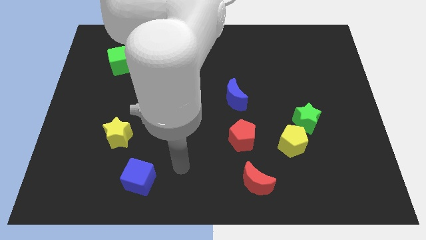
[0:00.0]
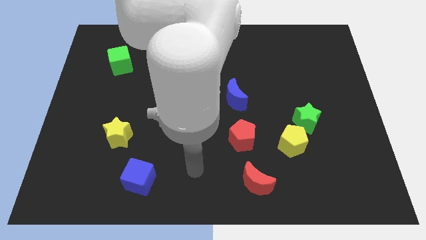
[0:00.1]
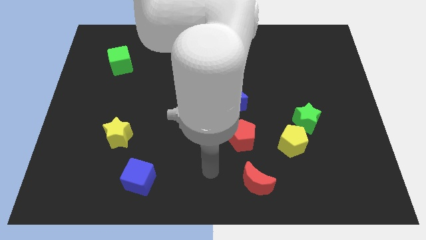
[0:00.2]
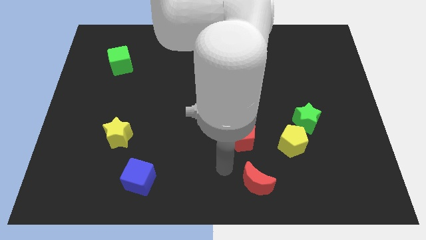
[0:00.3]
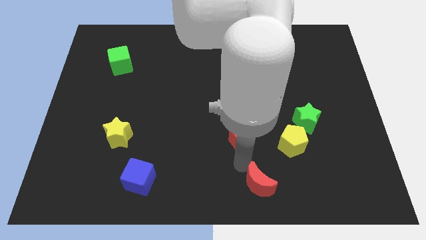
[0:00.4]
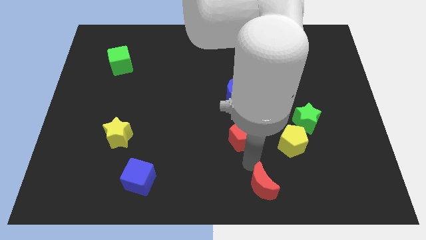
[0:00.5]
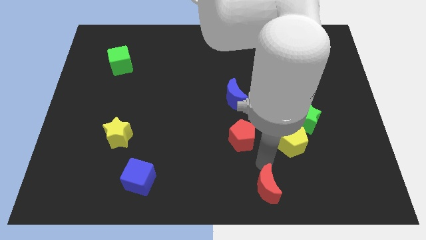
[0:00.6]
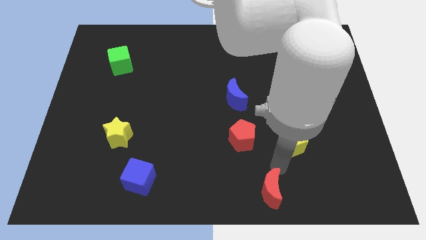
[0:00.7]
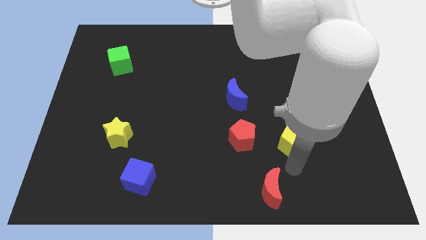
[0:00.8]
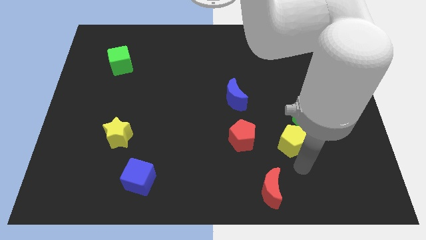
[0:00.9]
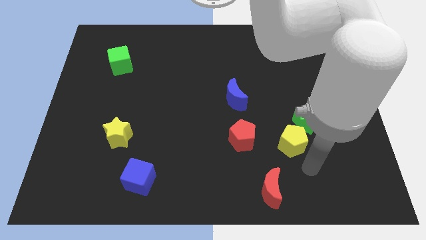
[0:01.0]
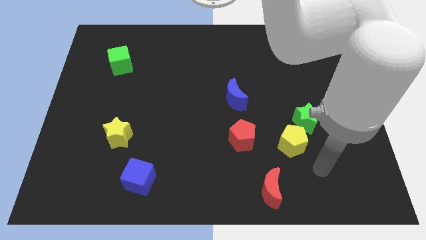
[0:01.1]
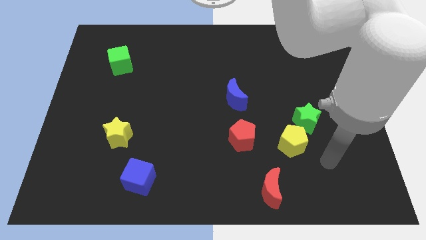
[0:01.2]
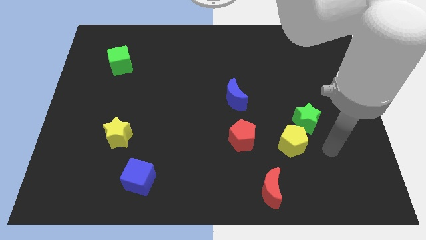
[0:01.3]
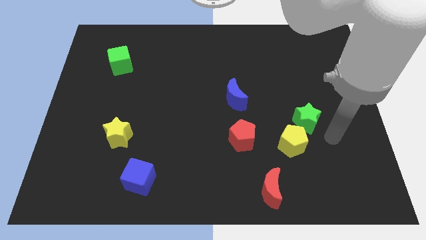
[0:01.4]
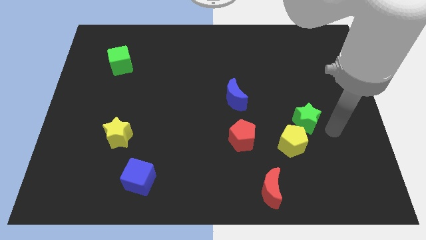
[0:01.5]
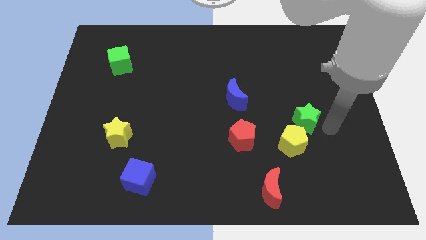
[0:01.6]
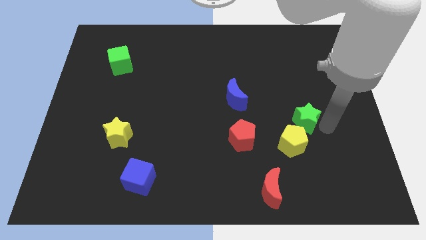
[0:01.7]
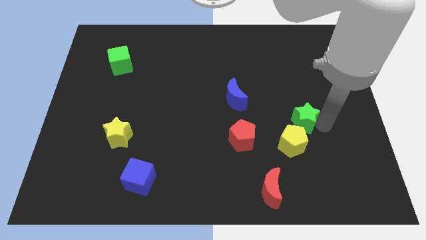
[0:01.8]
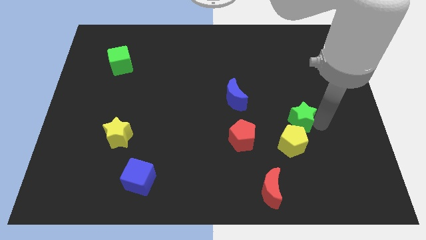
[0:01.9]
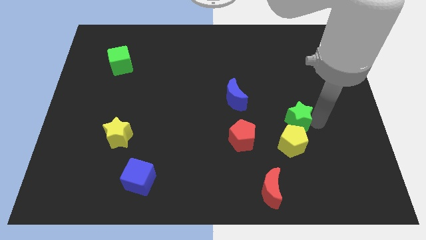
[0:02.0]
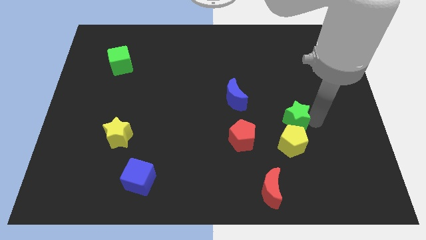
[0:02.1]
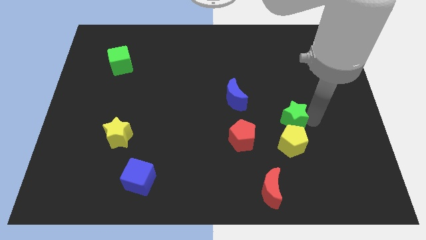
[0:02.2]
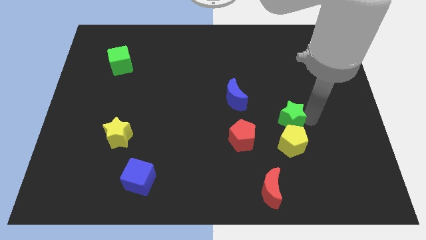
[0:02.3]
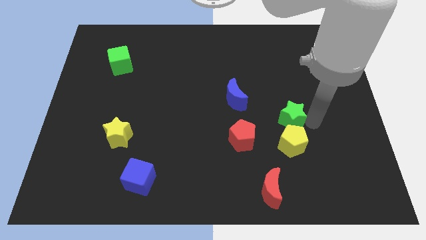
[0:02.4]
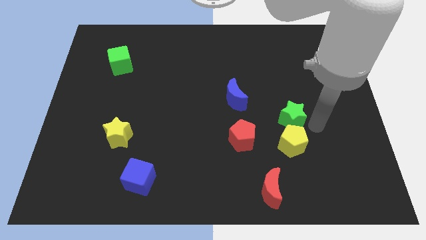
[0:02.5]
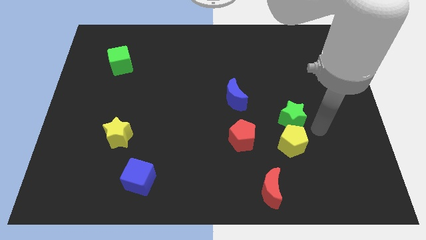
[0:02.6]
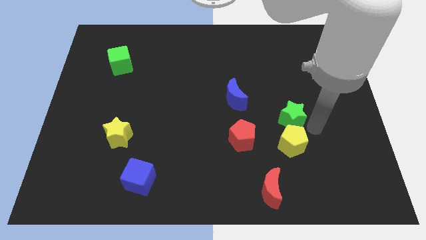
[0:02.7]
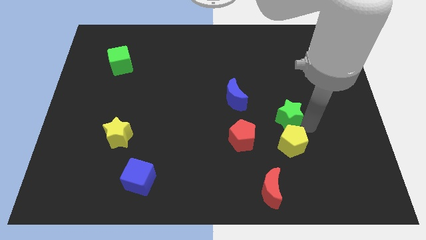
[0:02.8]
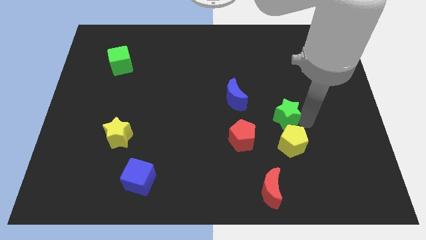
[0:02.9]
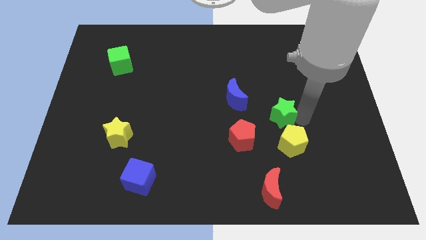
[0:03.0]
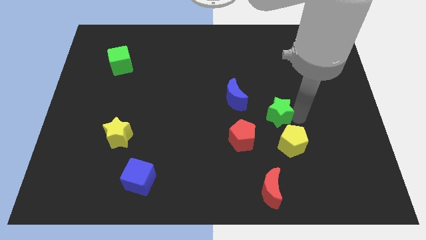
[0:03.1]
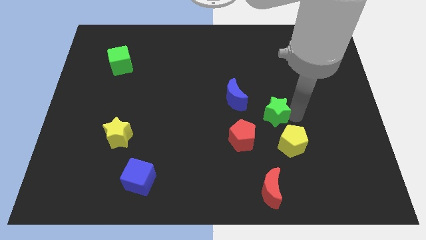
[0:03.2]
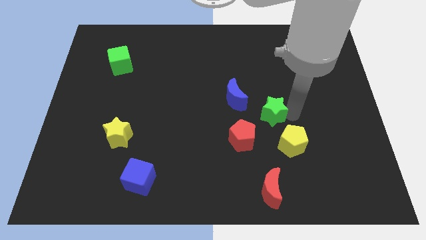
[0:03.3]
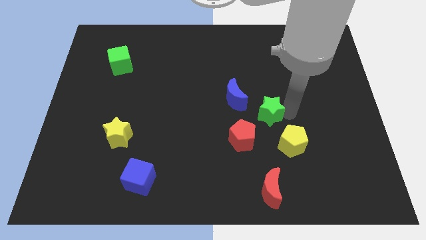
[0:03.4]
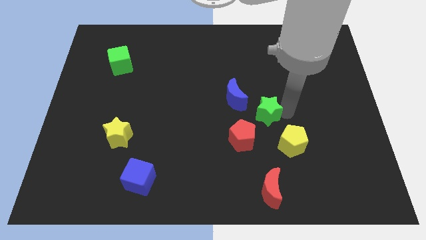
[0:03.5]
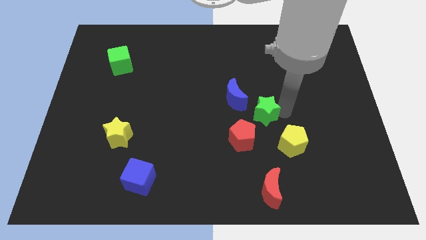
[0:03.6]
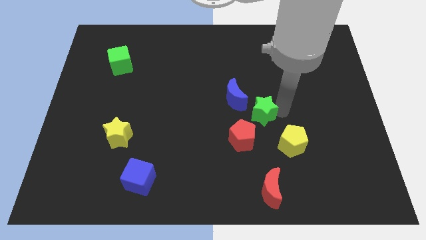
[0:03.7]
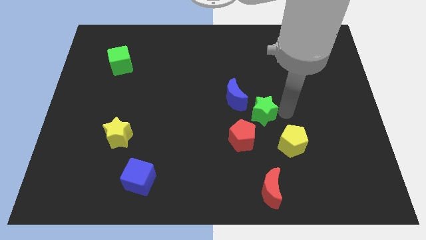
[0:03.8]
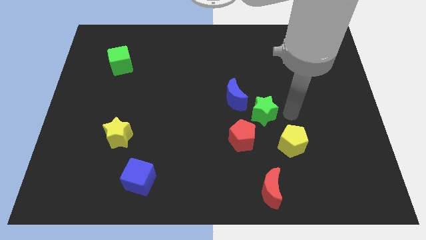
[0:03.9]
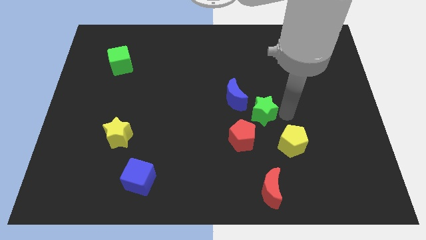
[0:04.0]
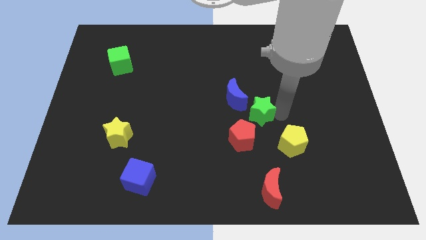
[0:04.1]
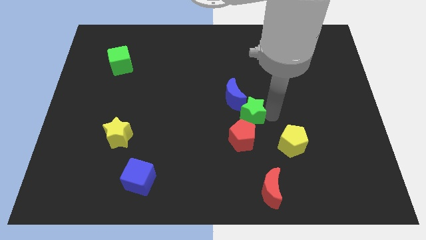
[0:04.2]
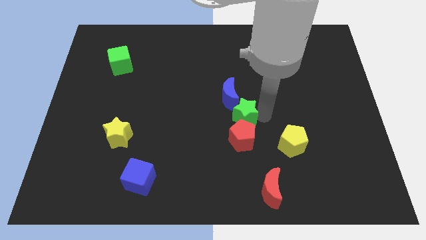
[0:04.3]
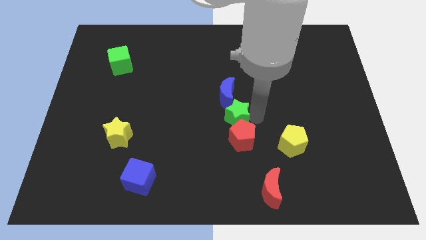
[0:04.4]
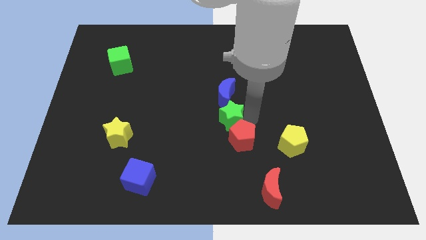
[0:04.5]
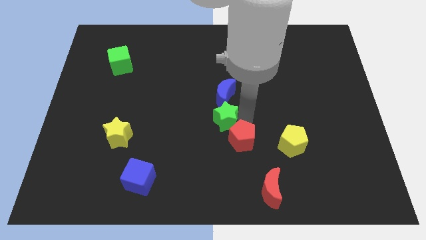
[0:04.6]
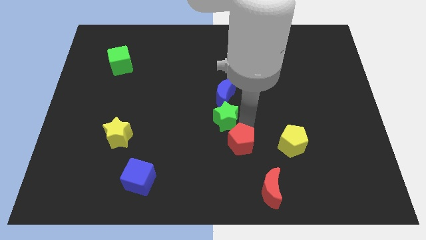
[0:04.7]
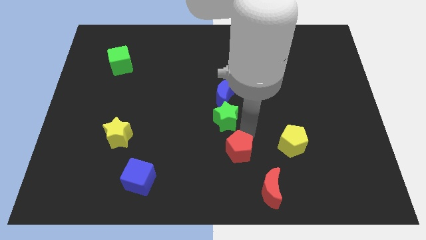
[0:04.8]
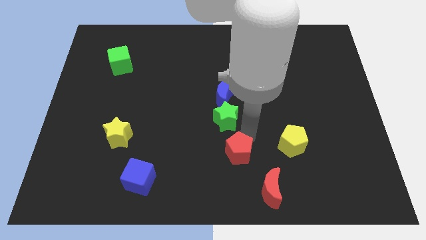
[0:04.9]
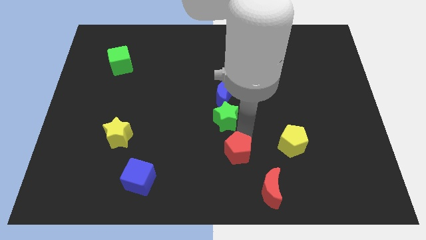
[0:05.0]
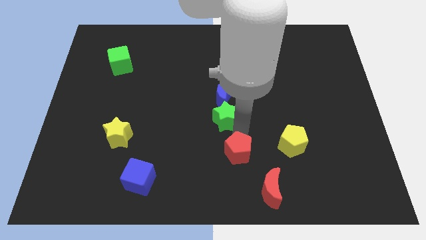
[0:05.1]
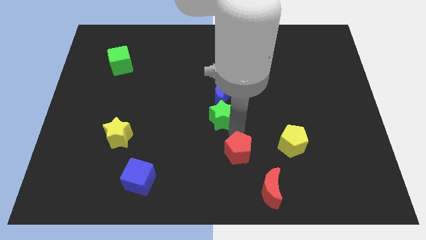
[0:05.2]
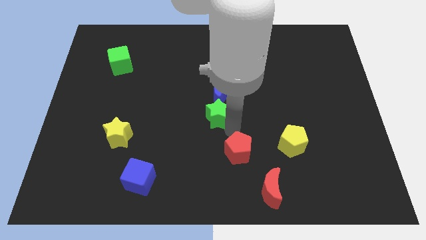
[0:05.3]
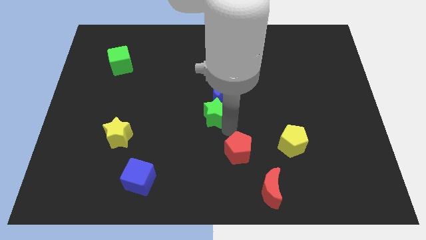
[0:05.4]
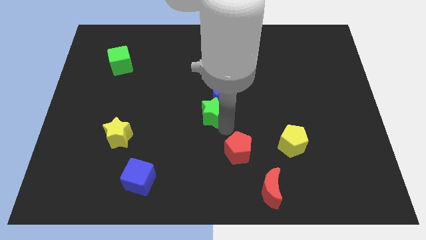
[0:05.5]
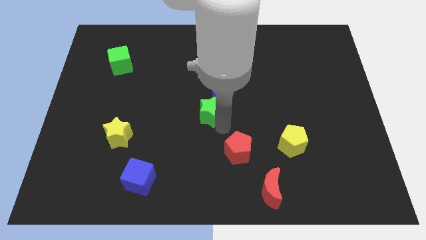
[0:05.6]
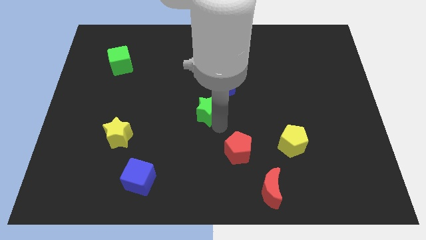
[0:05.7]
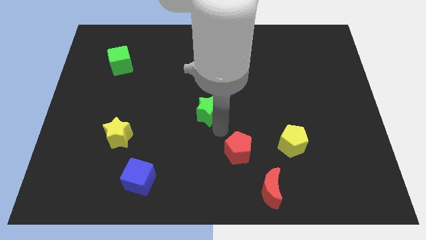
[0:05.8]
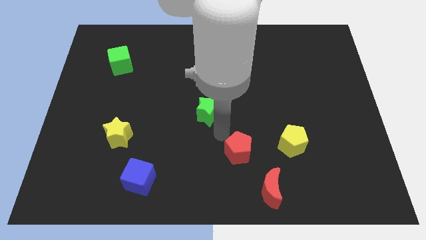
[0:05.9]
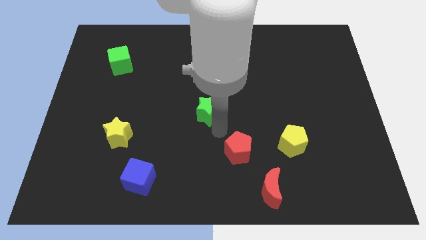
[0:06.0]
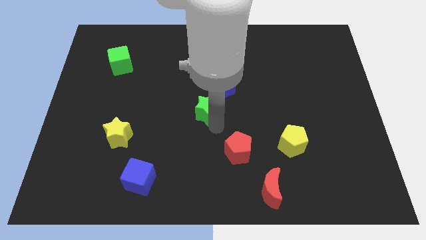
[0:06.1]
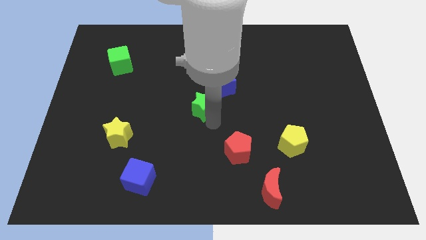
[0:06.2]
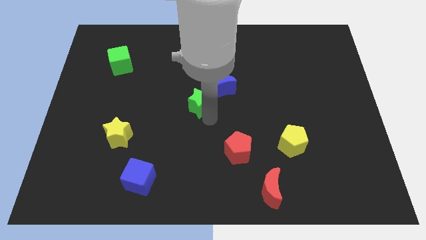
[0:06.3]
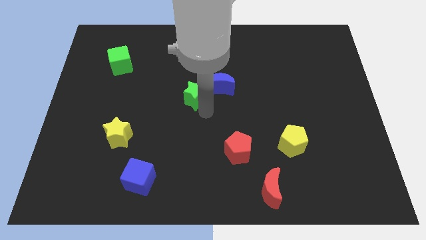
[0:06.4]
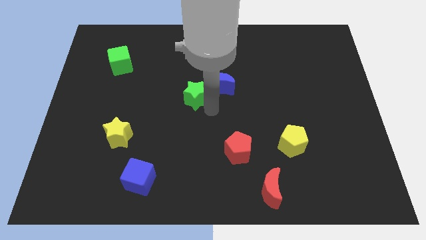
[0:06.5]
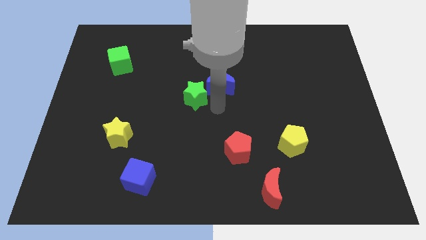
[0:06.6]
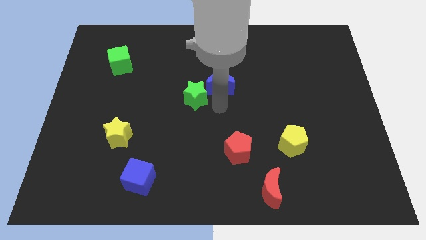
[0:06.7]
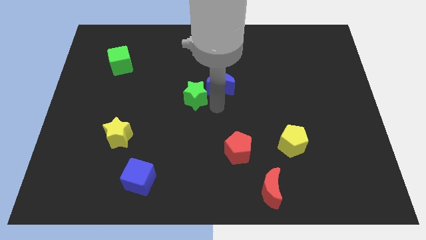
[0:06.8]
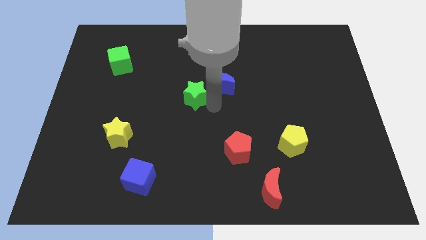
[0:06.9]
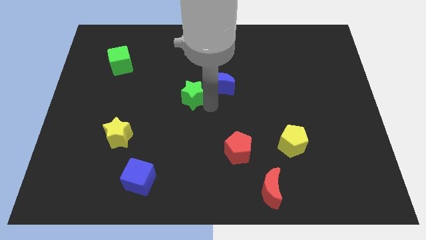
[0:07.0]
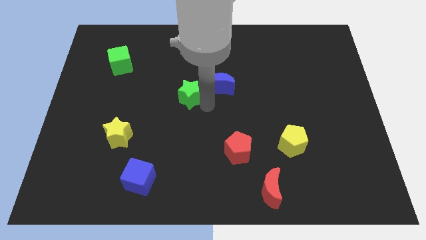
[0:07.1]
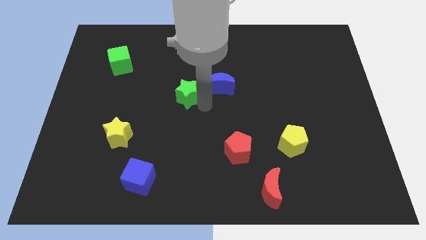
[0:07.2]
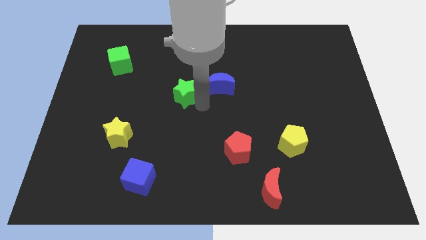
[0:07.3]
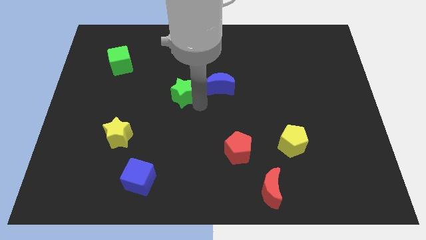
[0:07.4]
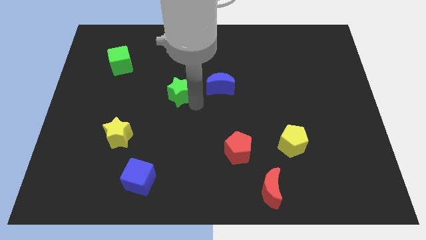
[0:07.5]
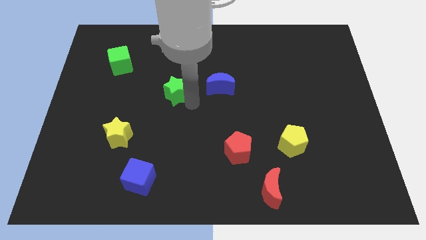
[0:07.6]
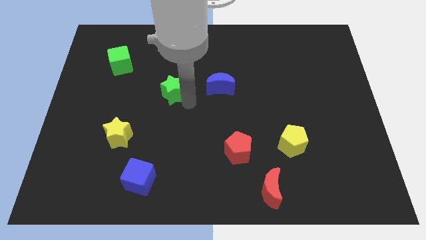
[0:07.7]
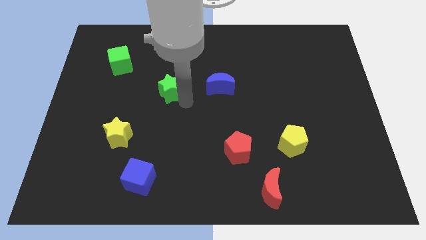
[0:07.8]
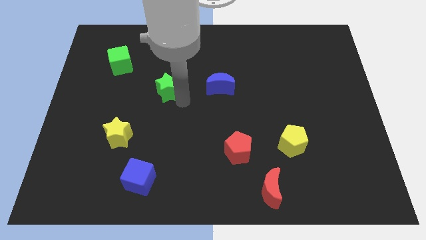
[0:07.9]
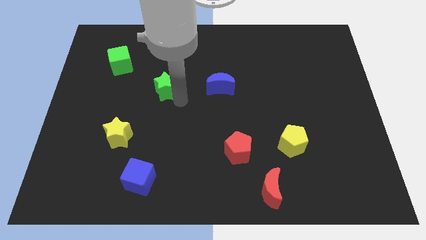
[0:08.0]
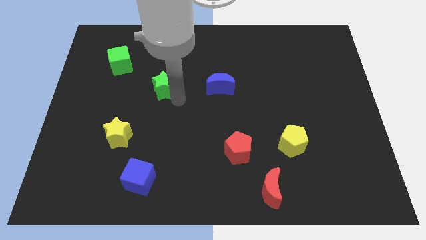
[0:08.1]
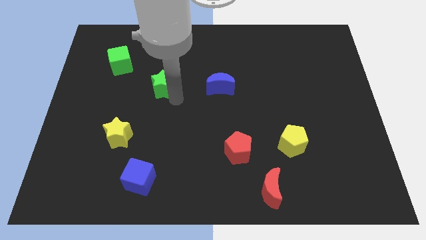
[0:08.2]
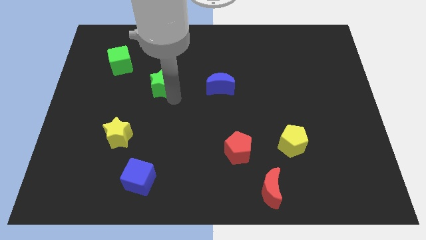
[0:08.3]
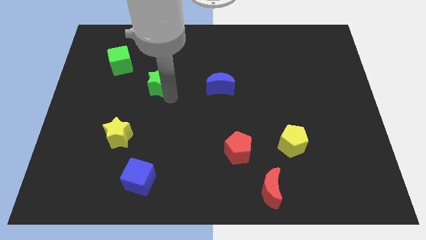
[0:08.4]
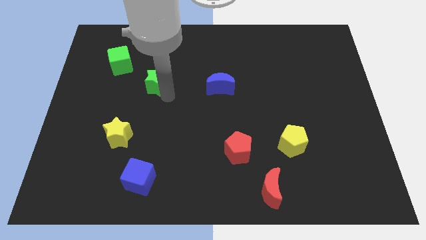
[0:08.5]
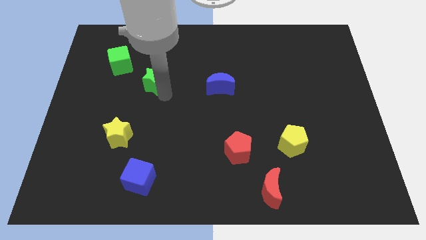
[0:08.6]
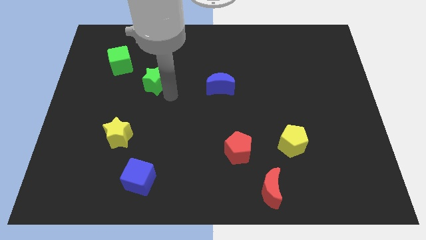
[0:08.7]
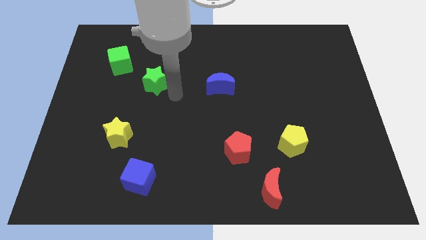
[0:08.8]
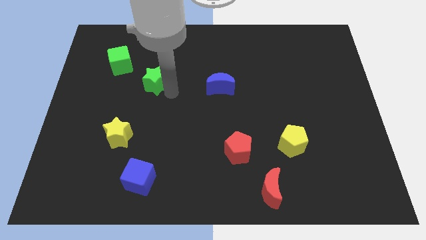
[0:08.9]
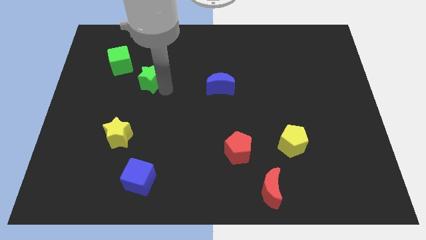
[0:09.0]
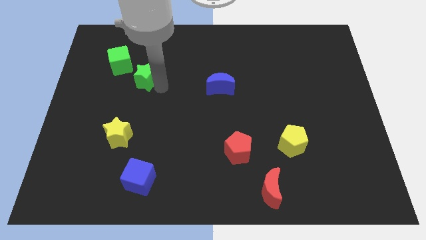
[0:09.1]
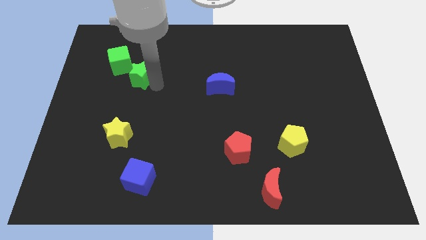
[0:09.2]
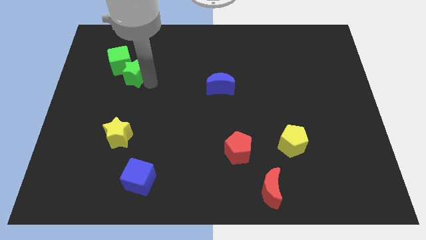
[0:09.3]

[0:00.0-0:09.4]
move the green star to the green cube
